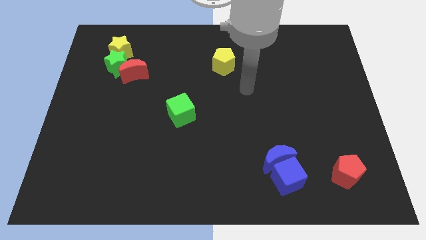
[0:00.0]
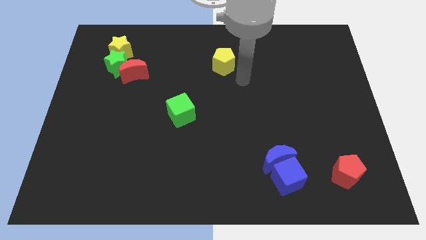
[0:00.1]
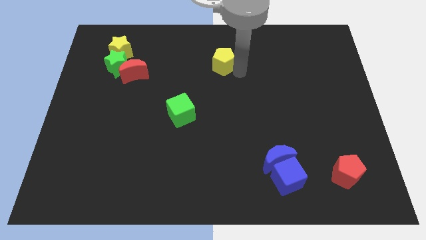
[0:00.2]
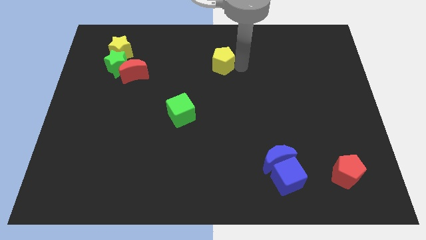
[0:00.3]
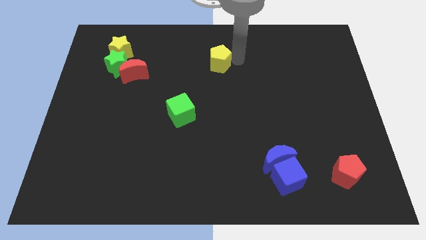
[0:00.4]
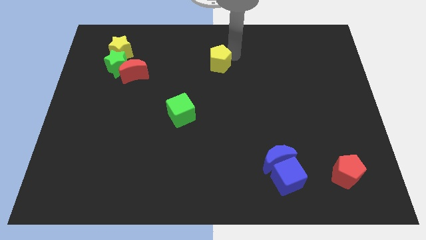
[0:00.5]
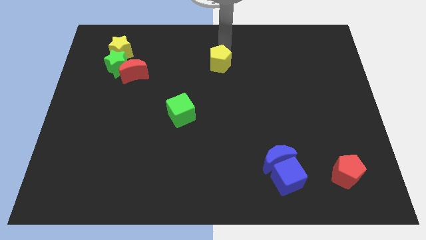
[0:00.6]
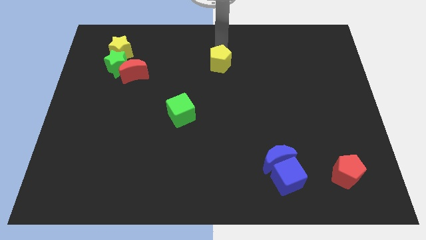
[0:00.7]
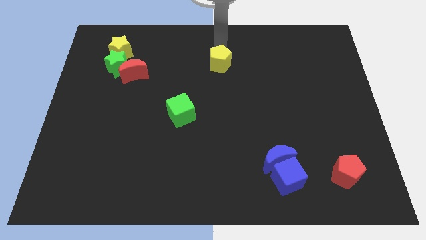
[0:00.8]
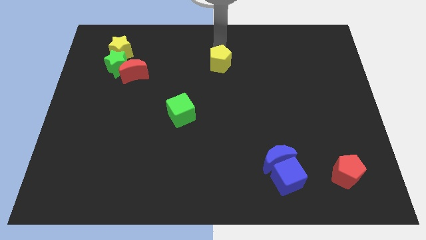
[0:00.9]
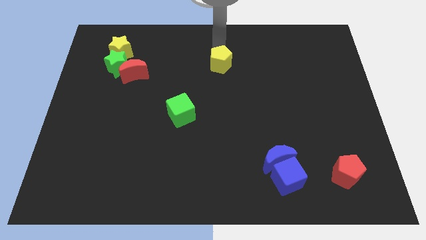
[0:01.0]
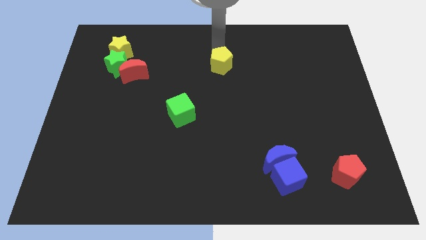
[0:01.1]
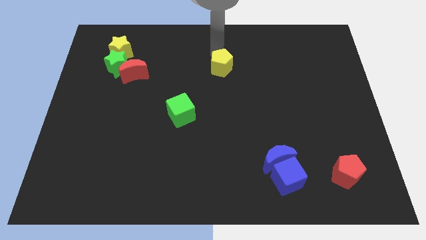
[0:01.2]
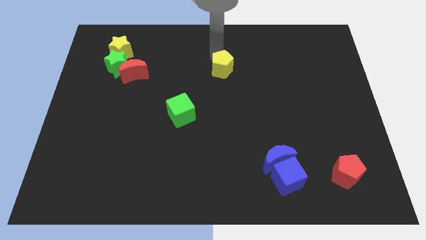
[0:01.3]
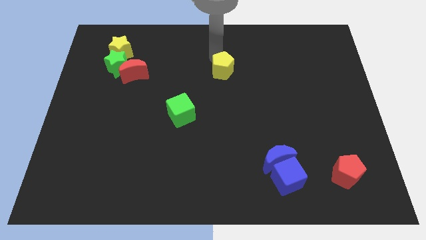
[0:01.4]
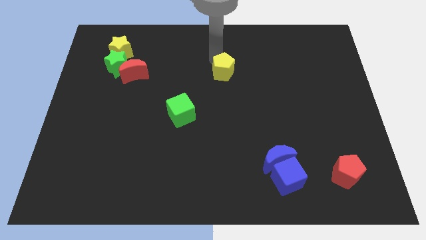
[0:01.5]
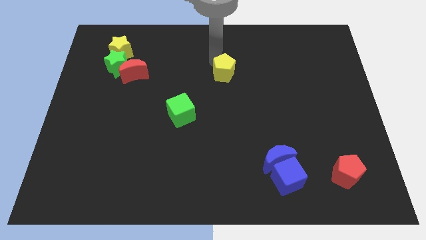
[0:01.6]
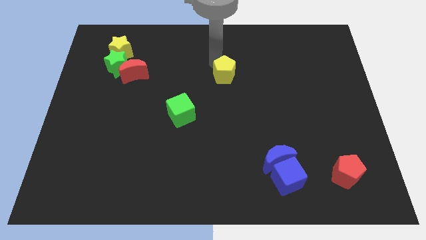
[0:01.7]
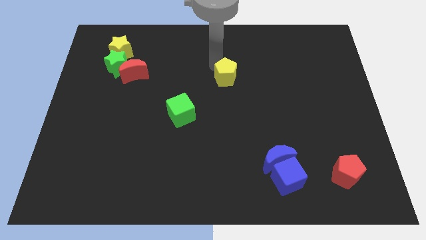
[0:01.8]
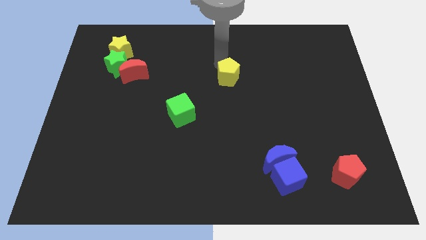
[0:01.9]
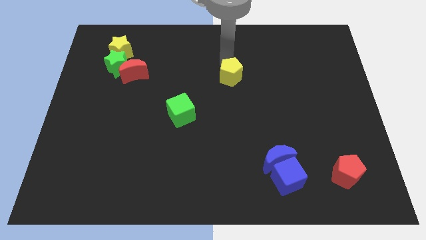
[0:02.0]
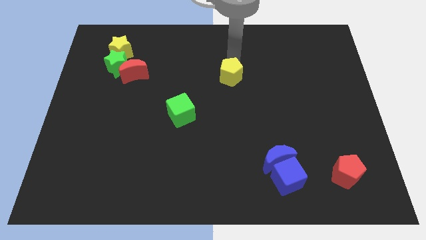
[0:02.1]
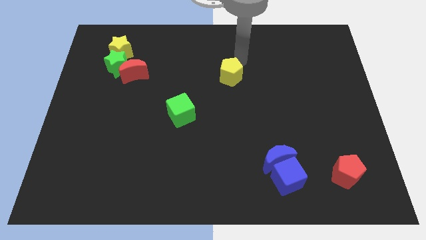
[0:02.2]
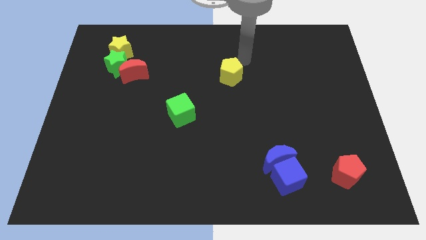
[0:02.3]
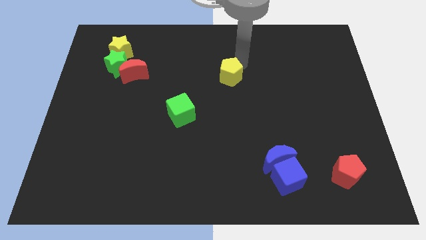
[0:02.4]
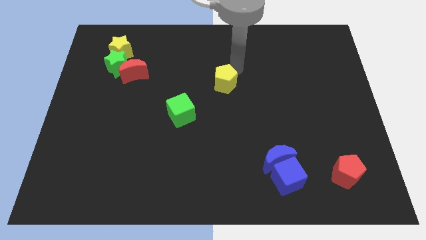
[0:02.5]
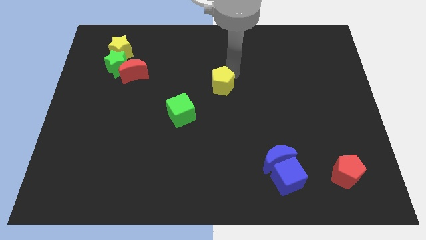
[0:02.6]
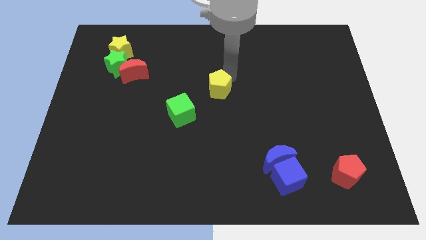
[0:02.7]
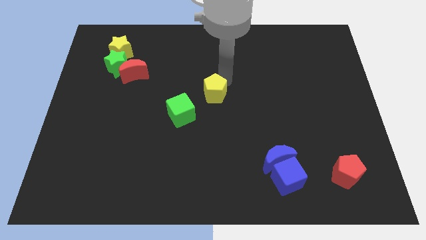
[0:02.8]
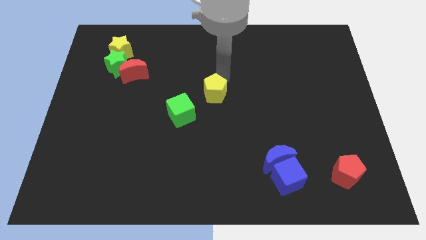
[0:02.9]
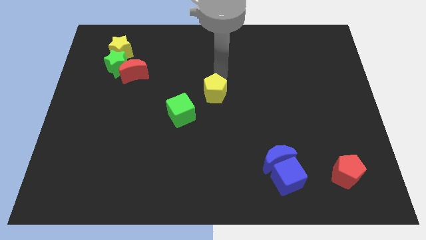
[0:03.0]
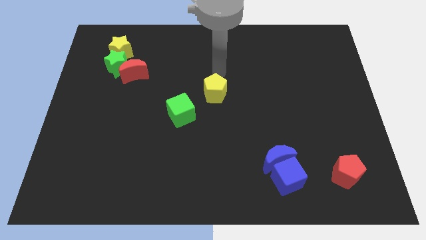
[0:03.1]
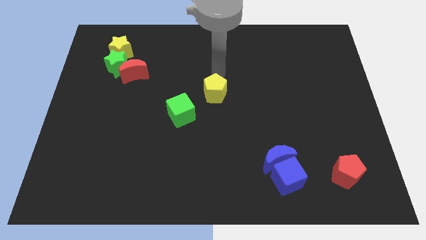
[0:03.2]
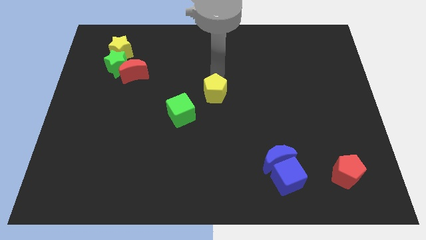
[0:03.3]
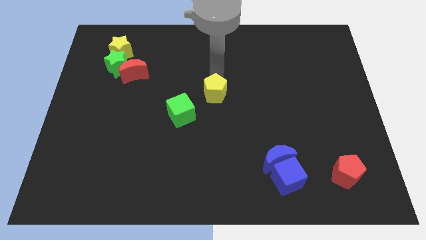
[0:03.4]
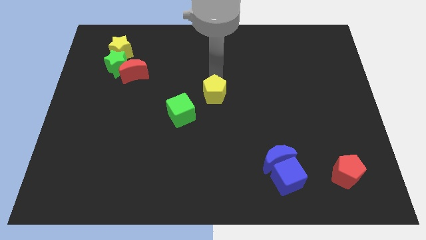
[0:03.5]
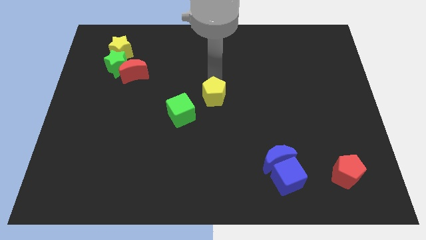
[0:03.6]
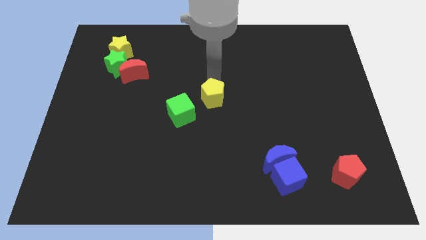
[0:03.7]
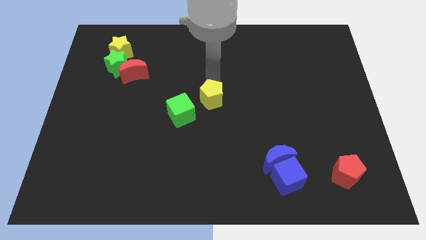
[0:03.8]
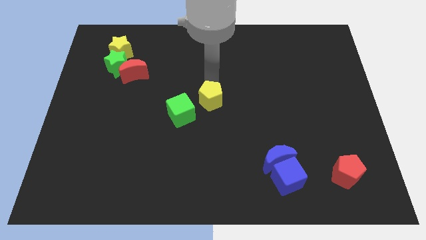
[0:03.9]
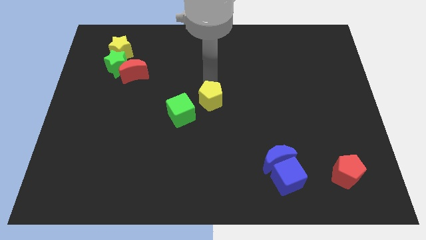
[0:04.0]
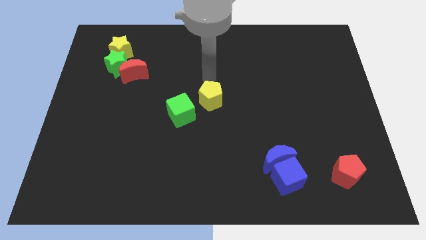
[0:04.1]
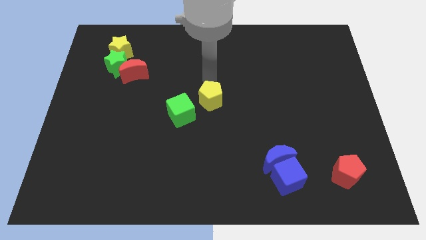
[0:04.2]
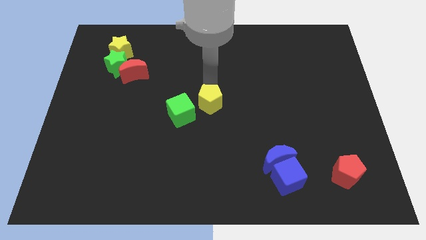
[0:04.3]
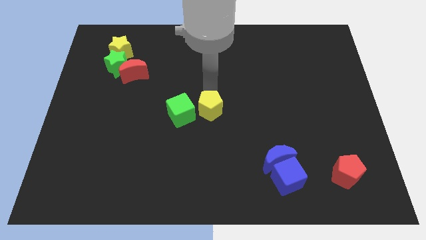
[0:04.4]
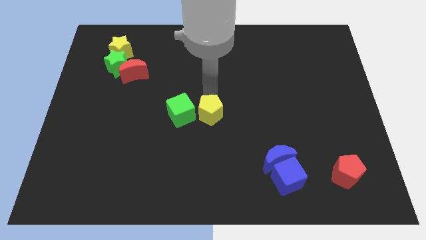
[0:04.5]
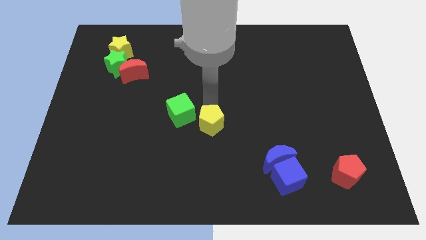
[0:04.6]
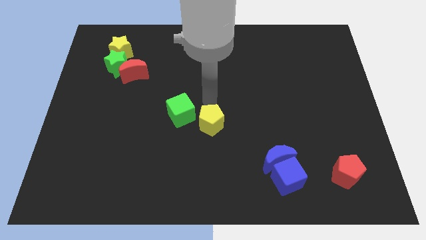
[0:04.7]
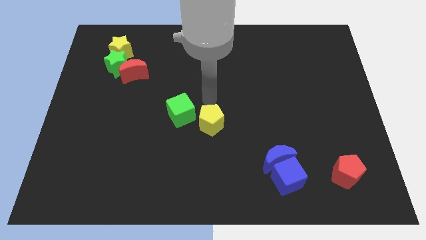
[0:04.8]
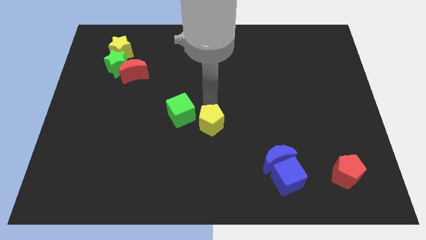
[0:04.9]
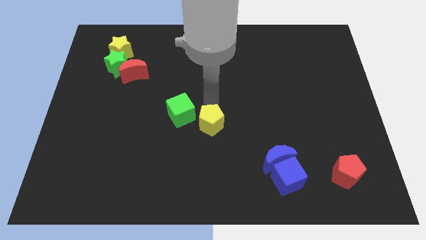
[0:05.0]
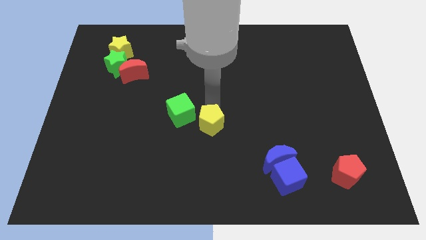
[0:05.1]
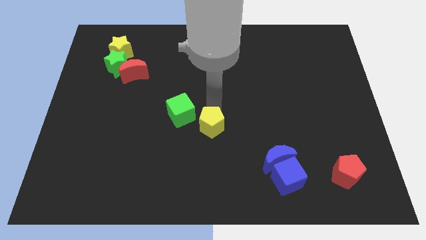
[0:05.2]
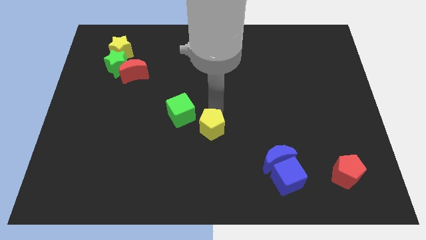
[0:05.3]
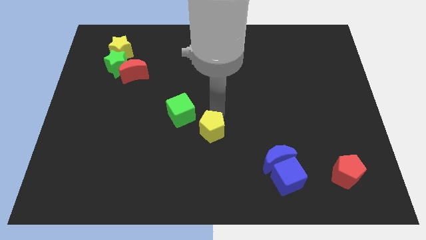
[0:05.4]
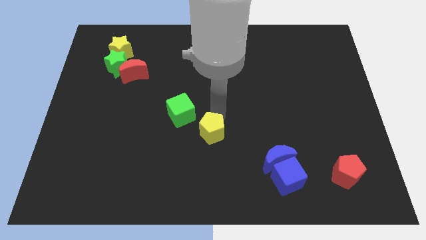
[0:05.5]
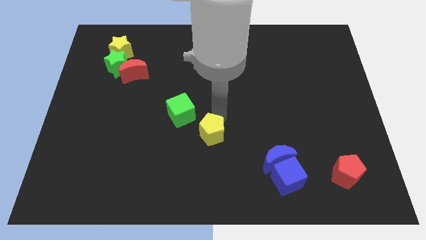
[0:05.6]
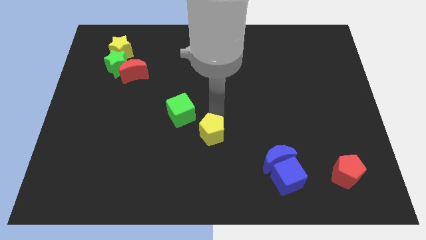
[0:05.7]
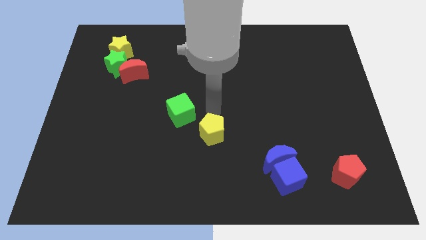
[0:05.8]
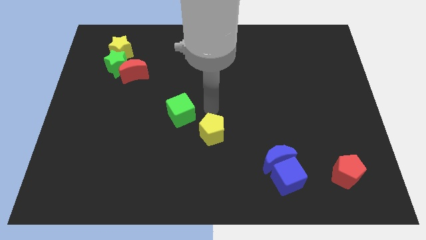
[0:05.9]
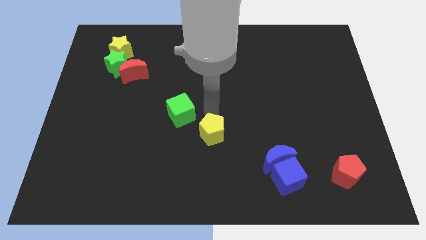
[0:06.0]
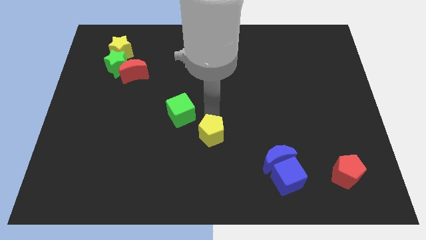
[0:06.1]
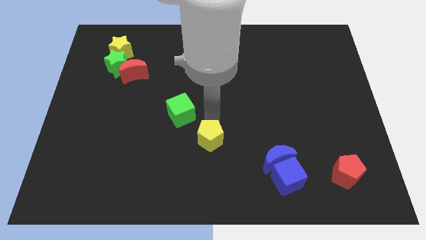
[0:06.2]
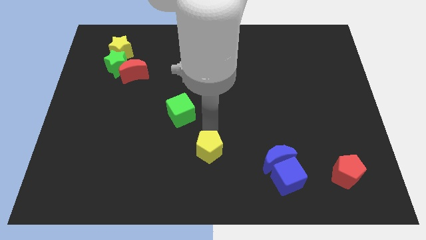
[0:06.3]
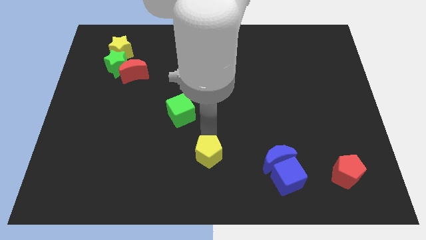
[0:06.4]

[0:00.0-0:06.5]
push the yellow pentagon to the bottom

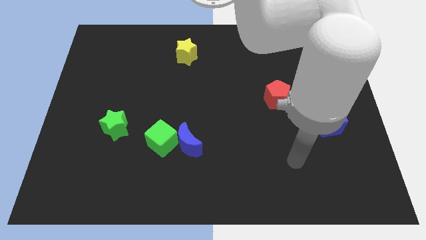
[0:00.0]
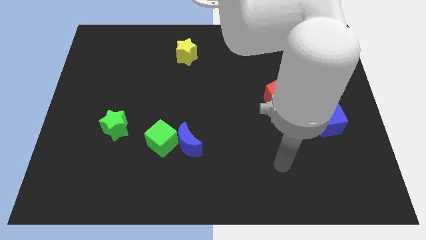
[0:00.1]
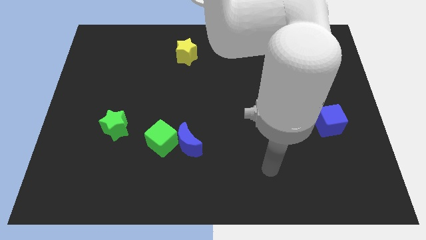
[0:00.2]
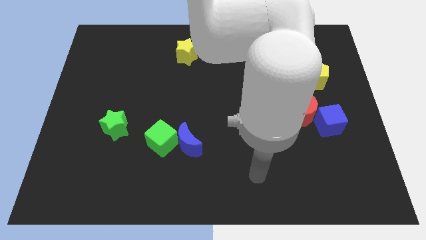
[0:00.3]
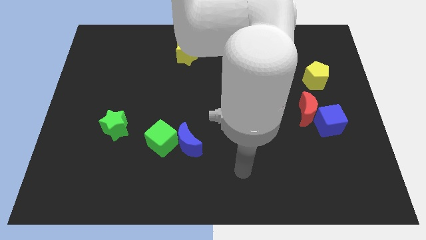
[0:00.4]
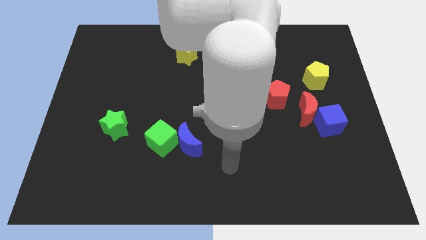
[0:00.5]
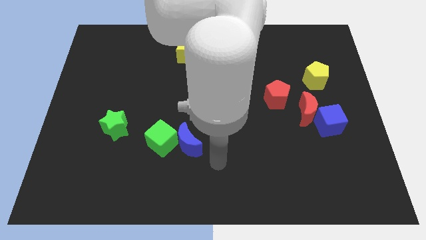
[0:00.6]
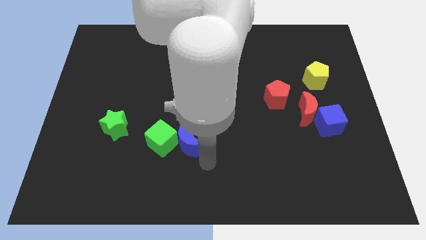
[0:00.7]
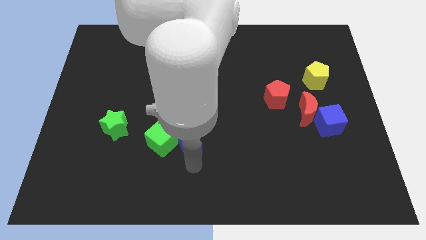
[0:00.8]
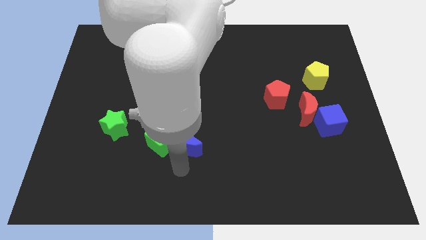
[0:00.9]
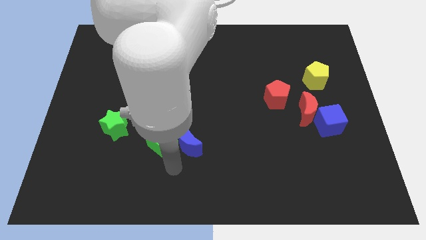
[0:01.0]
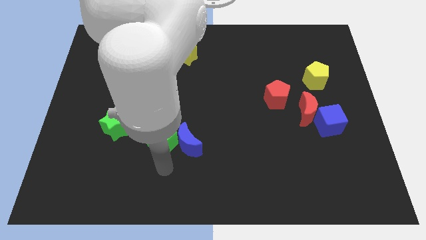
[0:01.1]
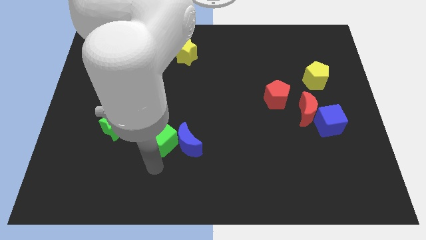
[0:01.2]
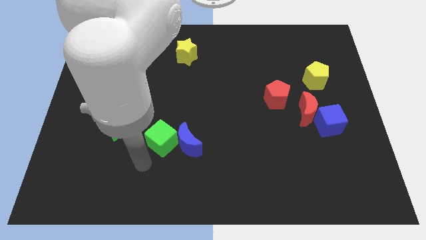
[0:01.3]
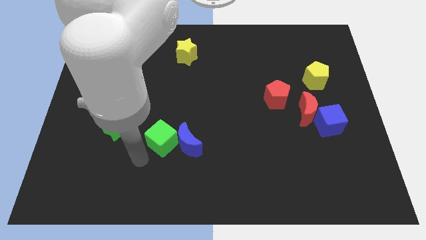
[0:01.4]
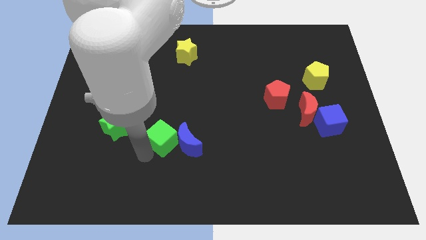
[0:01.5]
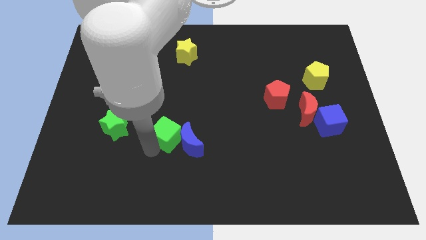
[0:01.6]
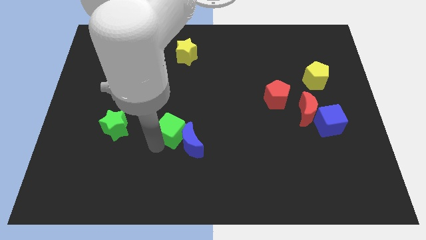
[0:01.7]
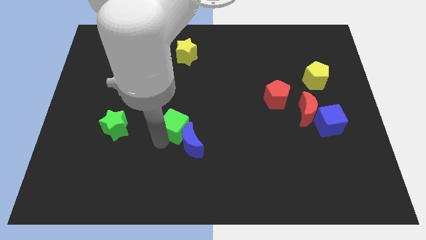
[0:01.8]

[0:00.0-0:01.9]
slide the green cube to the center of the board
